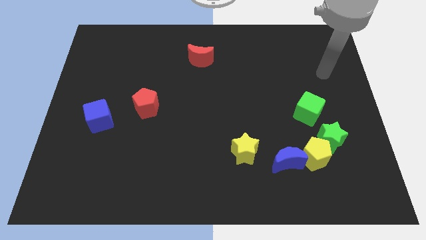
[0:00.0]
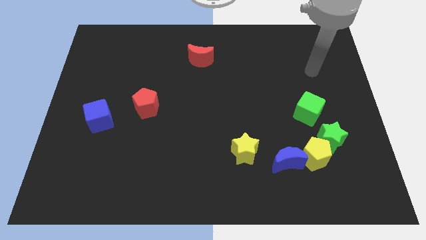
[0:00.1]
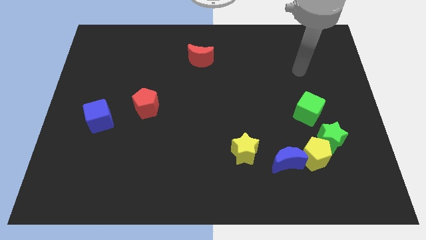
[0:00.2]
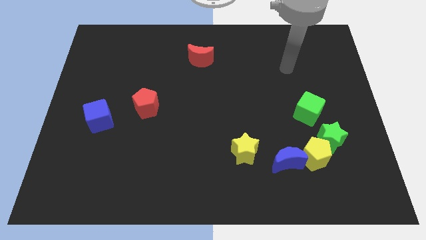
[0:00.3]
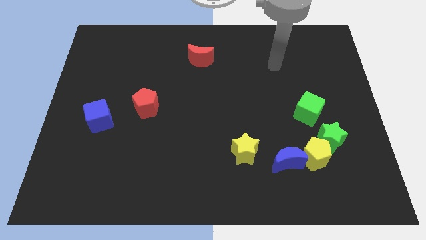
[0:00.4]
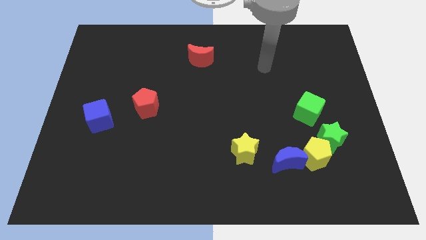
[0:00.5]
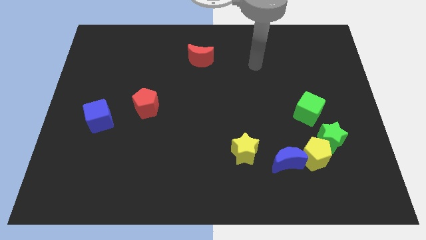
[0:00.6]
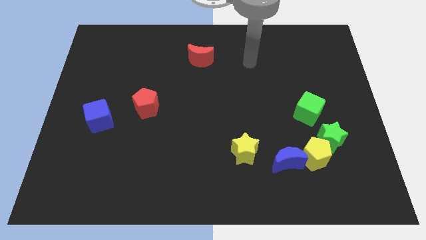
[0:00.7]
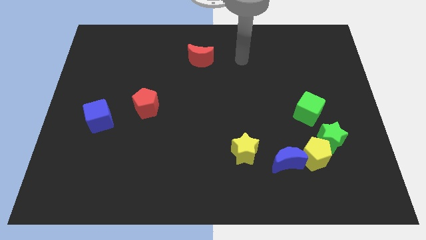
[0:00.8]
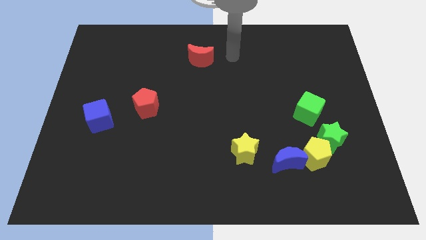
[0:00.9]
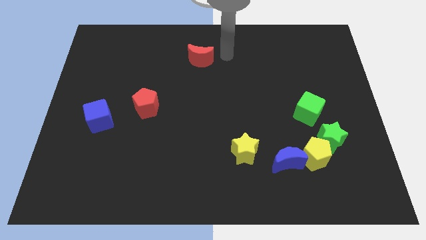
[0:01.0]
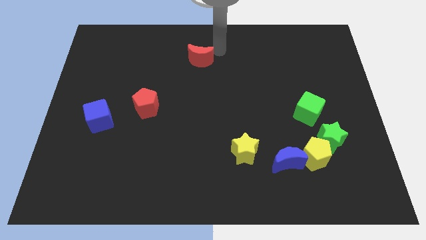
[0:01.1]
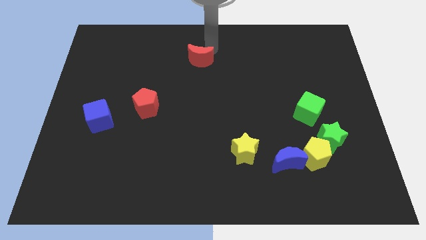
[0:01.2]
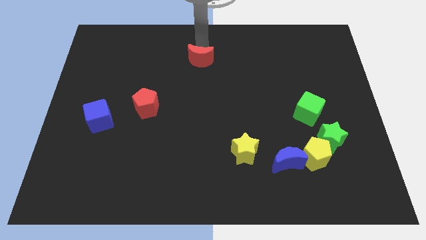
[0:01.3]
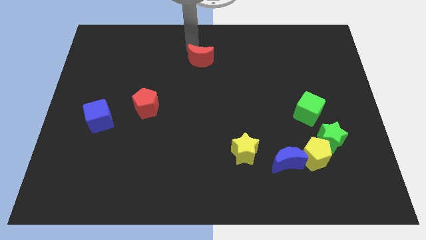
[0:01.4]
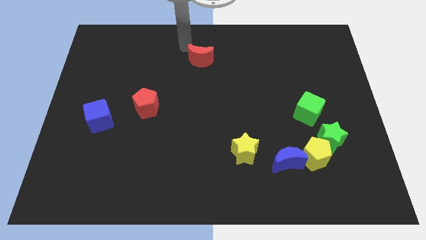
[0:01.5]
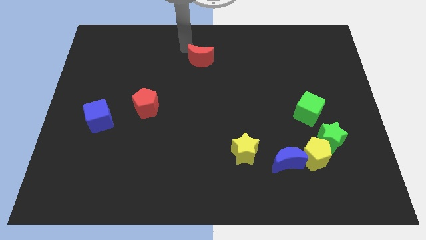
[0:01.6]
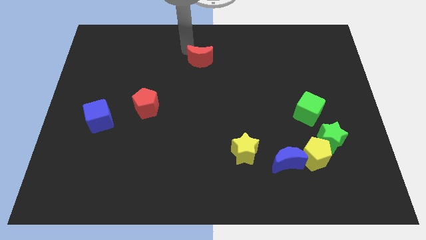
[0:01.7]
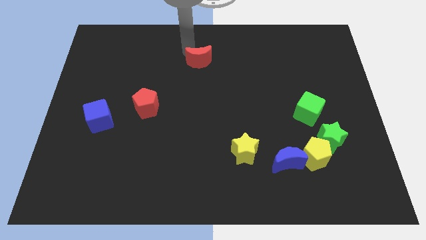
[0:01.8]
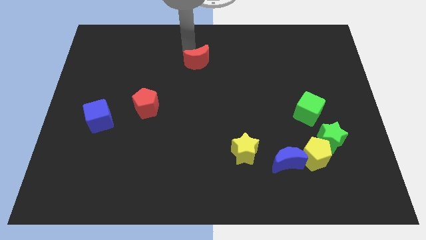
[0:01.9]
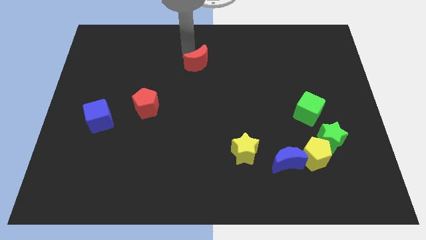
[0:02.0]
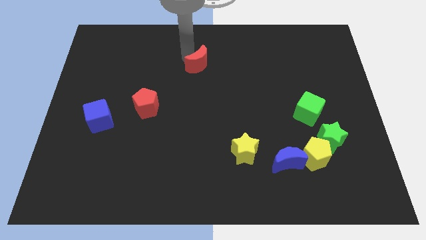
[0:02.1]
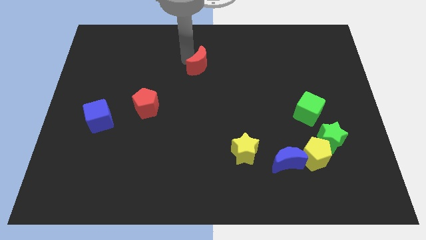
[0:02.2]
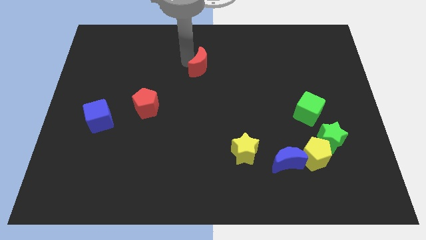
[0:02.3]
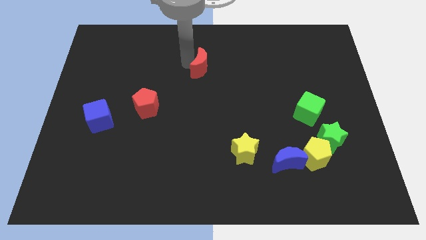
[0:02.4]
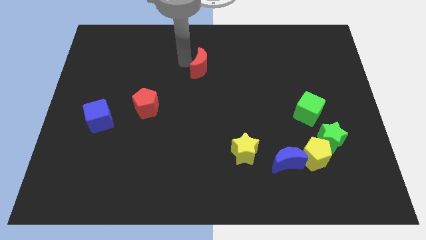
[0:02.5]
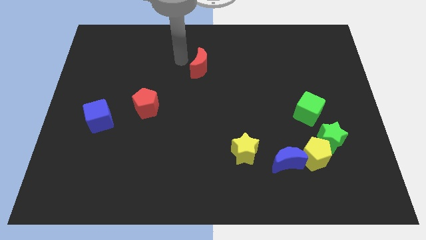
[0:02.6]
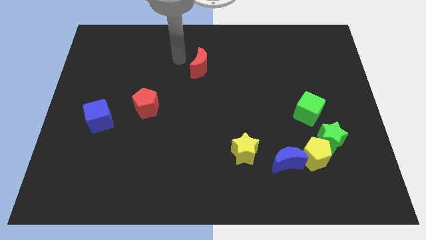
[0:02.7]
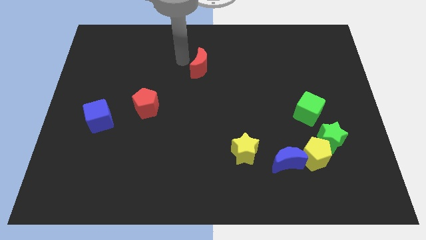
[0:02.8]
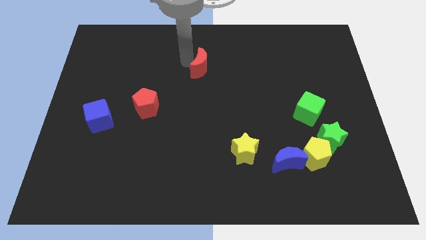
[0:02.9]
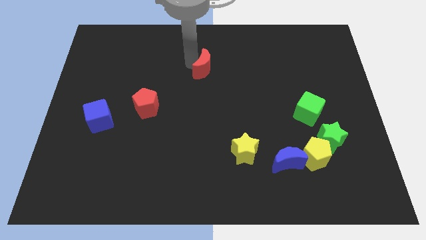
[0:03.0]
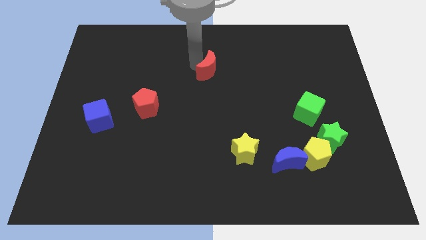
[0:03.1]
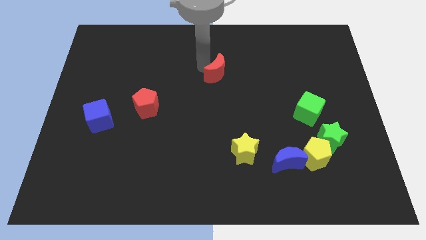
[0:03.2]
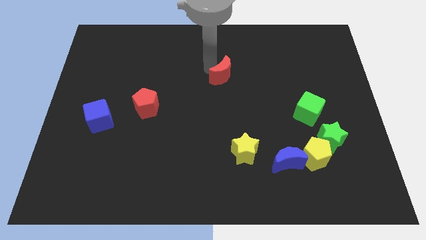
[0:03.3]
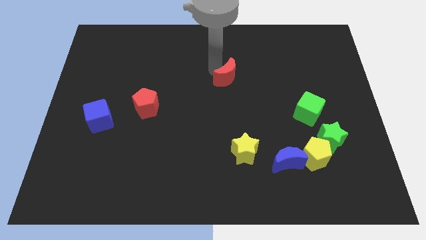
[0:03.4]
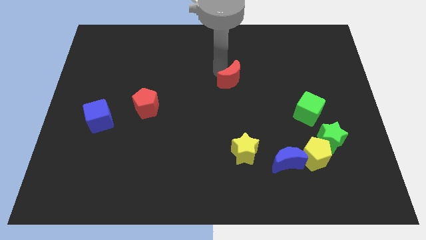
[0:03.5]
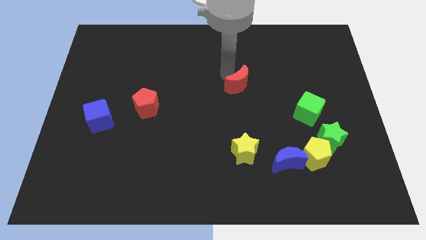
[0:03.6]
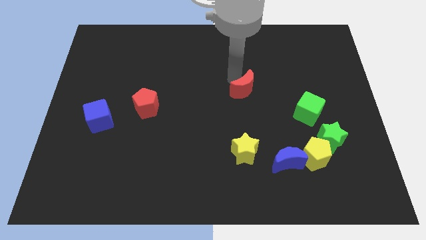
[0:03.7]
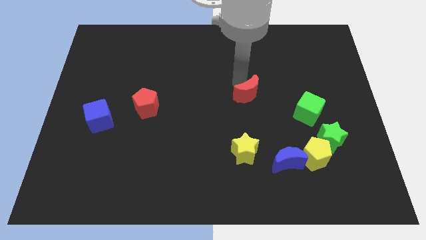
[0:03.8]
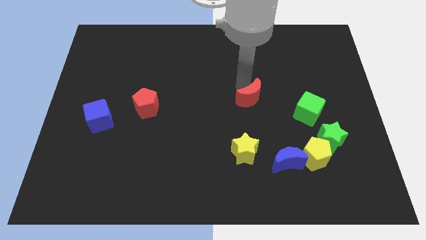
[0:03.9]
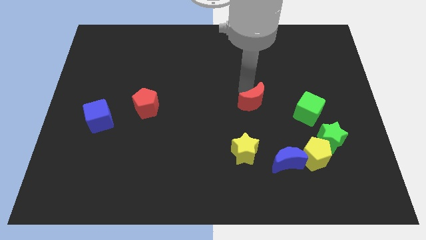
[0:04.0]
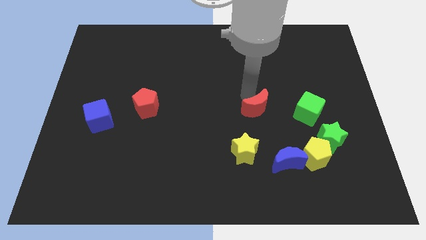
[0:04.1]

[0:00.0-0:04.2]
push the red moon downwards and right diagonally

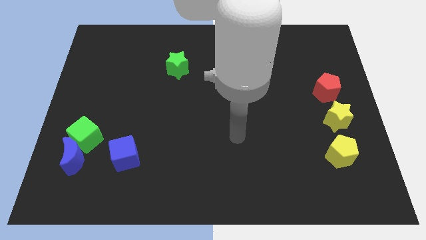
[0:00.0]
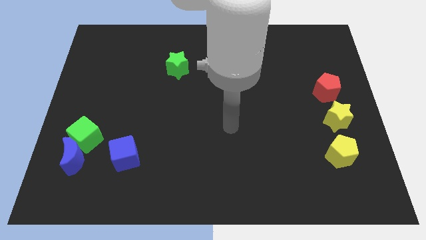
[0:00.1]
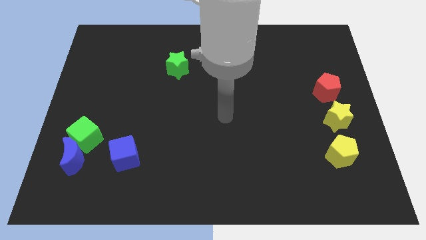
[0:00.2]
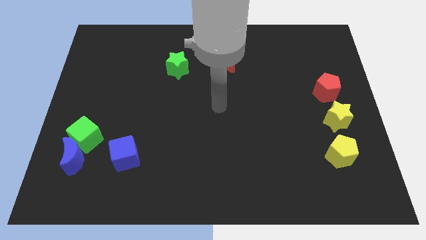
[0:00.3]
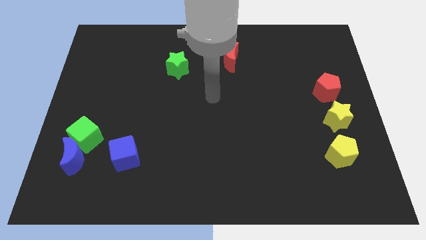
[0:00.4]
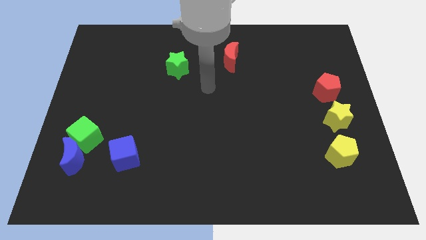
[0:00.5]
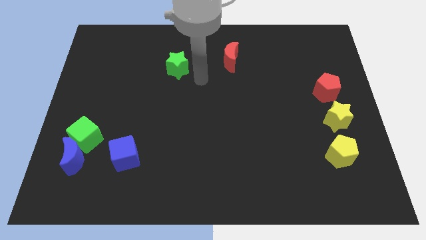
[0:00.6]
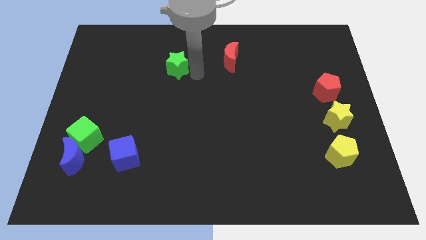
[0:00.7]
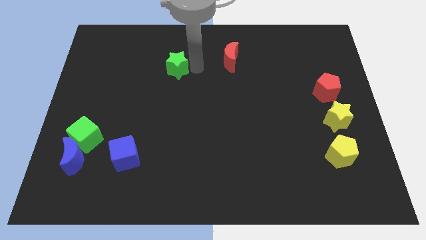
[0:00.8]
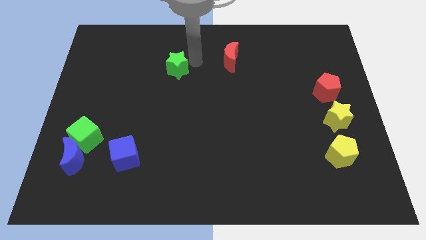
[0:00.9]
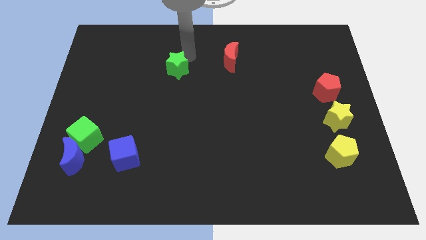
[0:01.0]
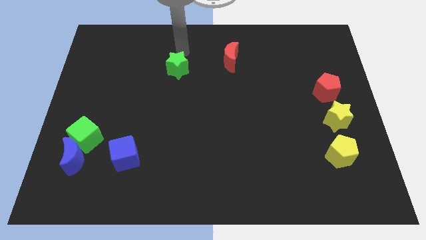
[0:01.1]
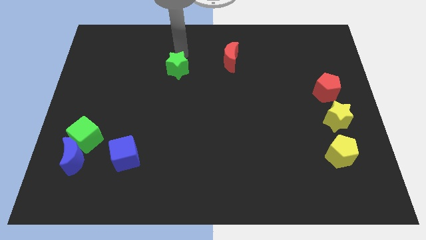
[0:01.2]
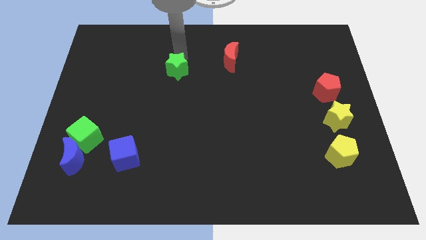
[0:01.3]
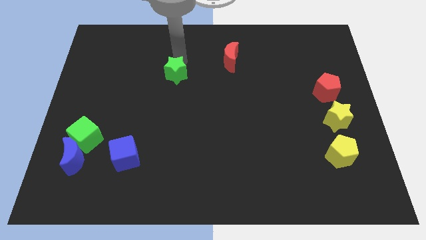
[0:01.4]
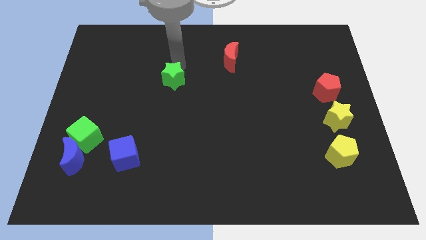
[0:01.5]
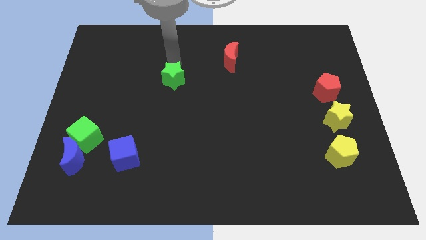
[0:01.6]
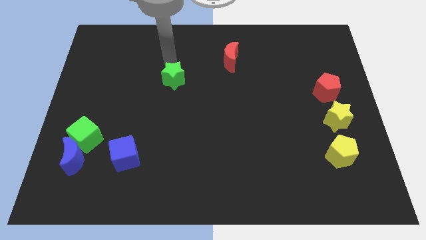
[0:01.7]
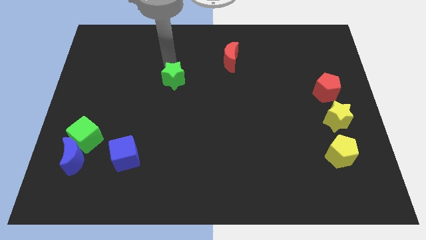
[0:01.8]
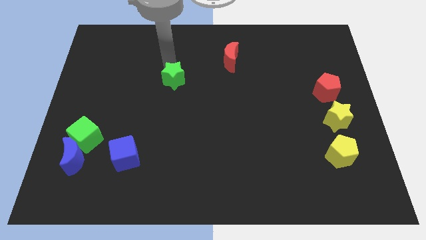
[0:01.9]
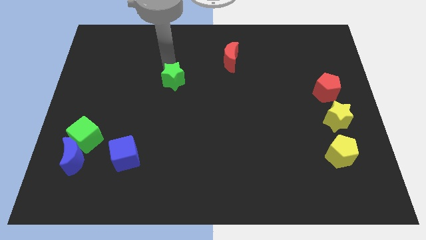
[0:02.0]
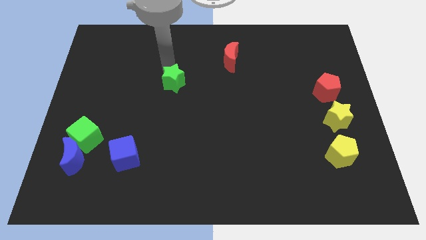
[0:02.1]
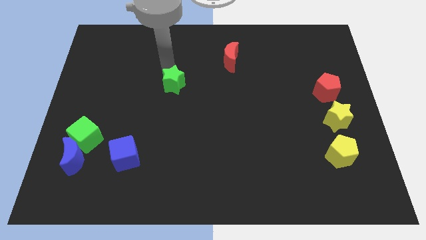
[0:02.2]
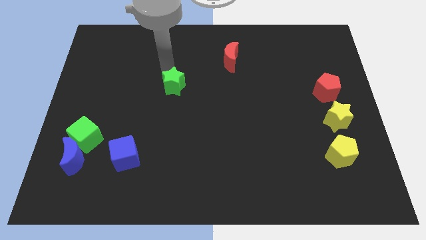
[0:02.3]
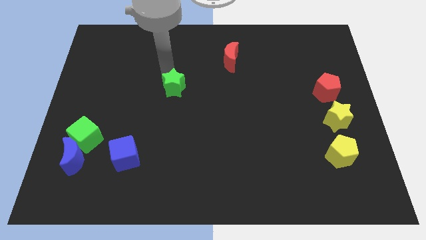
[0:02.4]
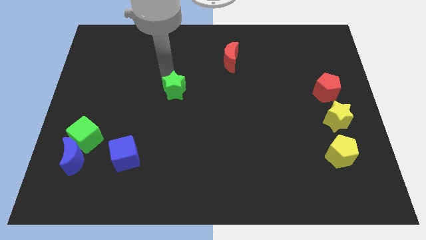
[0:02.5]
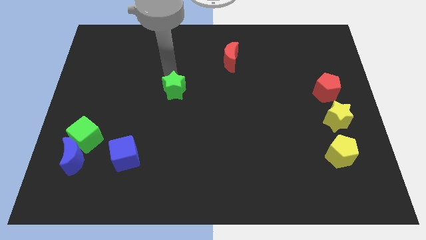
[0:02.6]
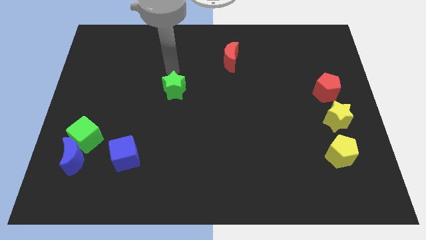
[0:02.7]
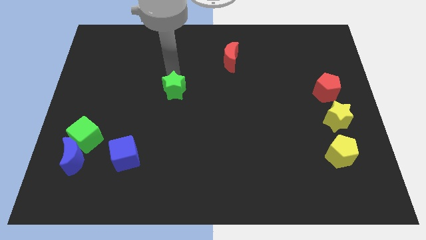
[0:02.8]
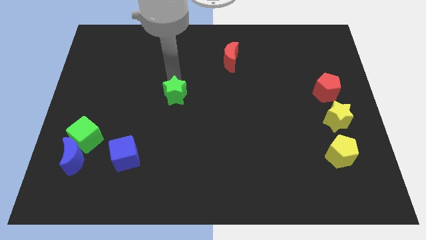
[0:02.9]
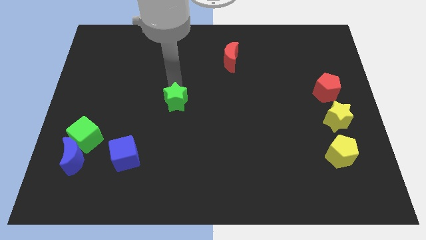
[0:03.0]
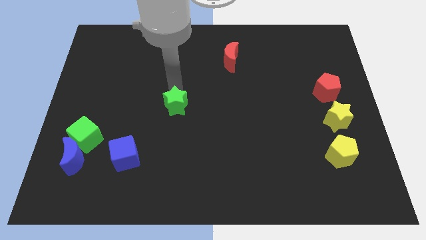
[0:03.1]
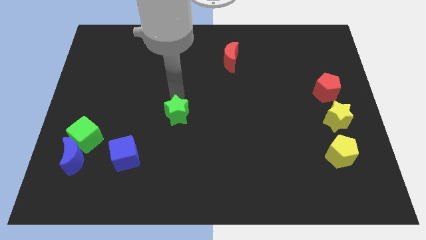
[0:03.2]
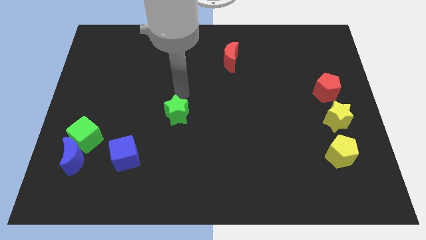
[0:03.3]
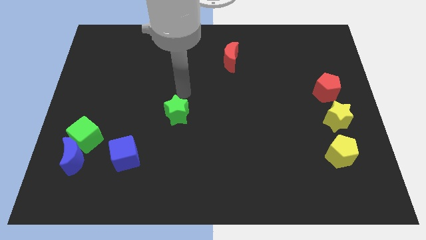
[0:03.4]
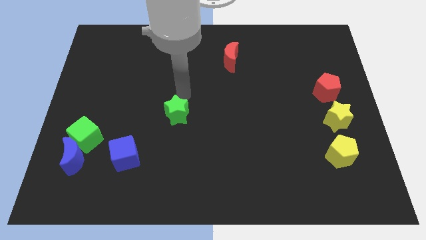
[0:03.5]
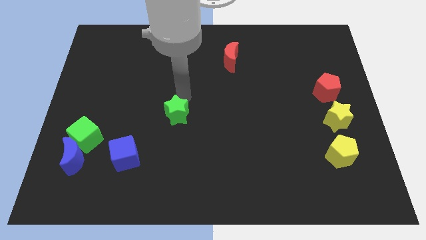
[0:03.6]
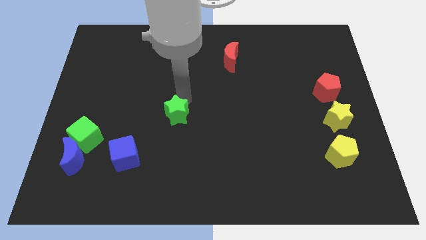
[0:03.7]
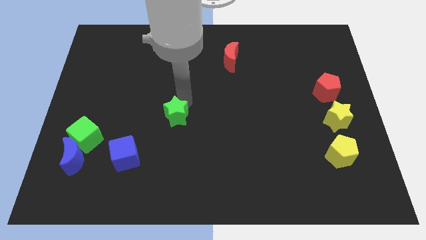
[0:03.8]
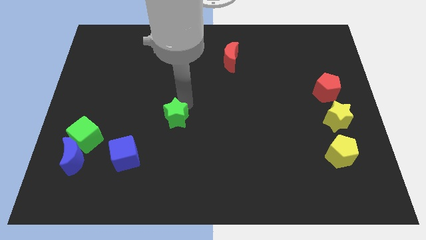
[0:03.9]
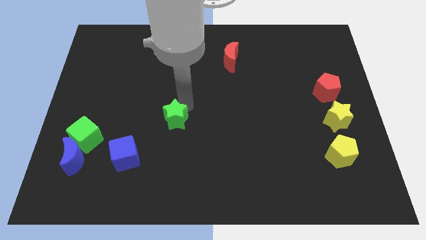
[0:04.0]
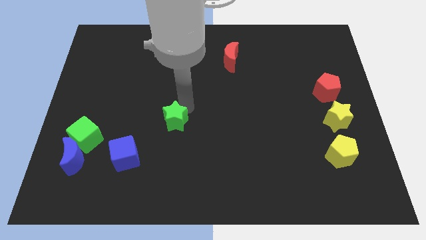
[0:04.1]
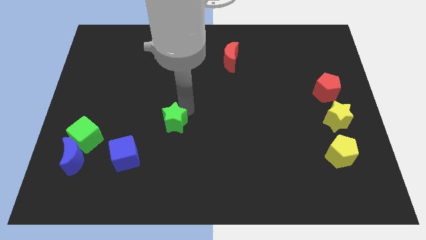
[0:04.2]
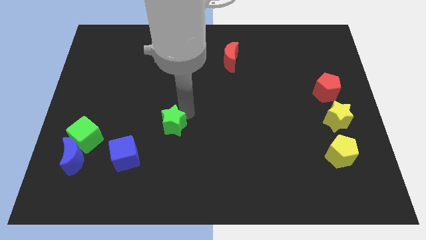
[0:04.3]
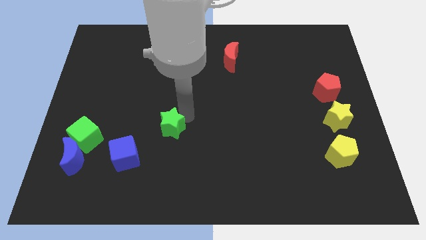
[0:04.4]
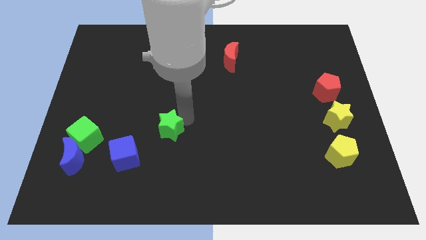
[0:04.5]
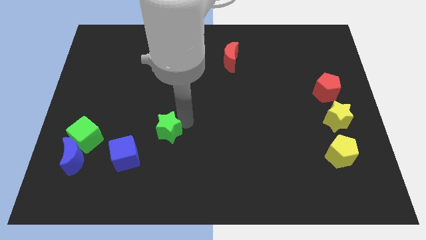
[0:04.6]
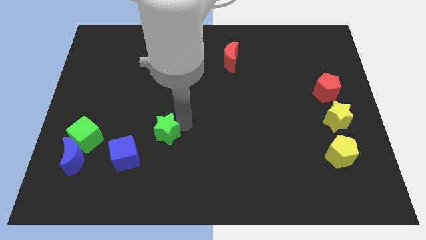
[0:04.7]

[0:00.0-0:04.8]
slide the green star down
